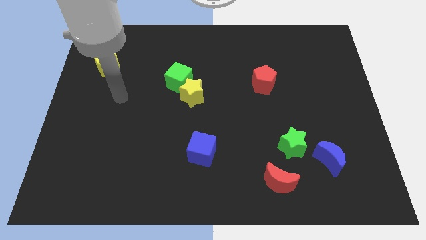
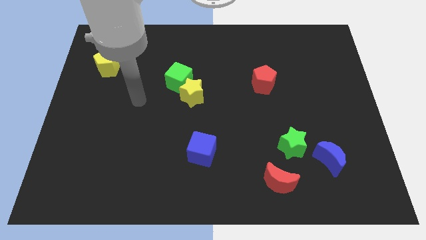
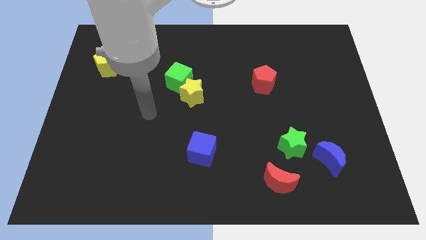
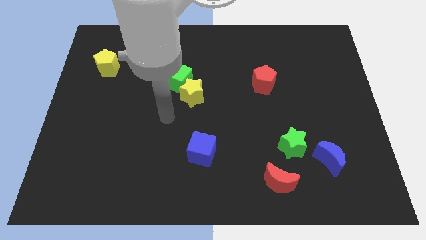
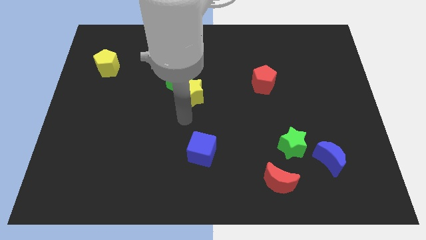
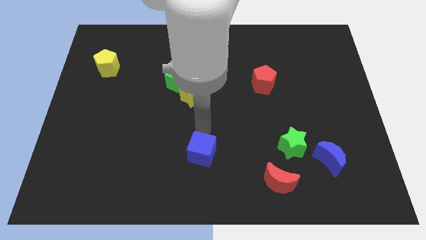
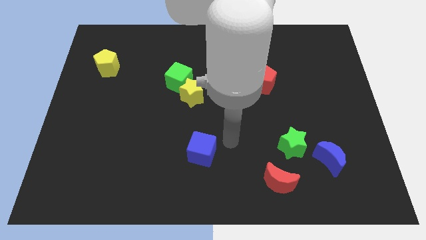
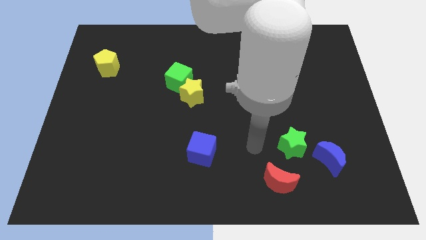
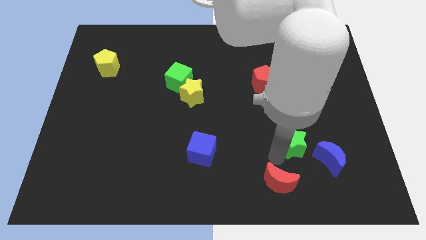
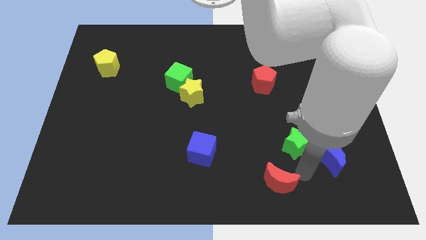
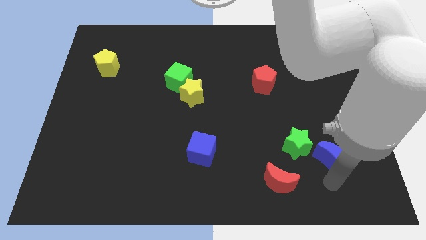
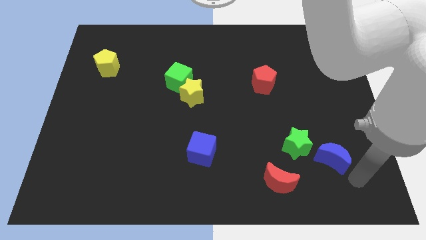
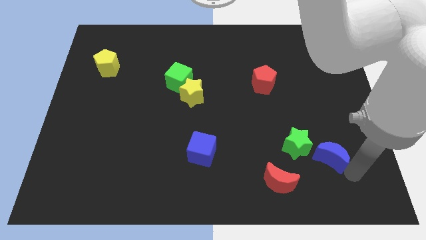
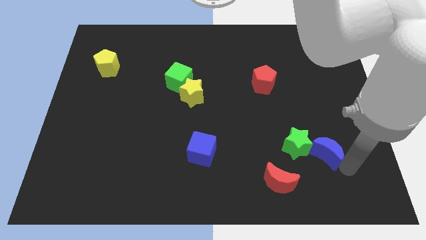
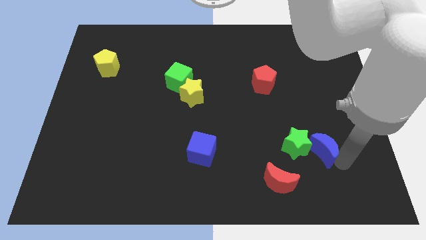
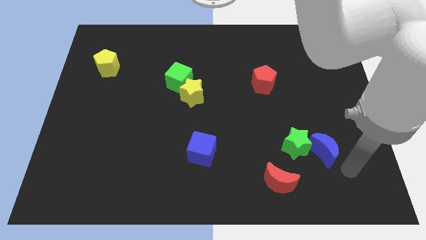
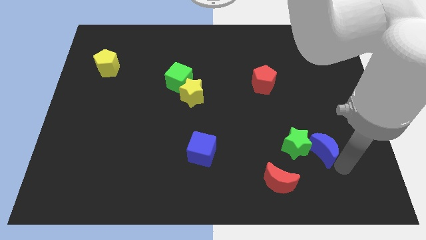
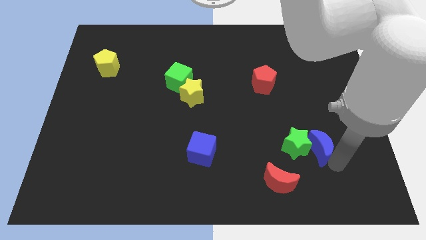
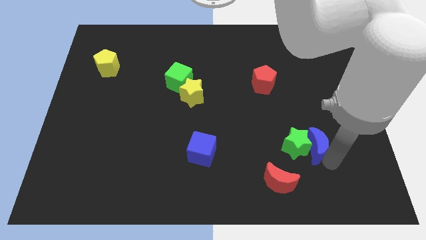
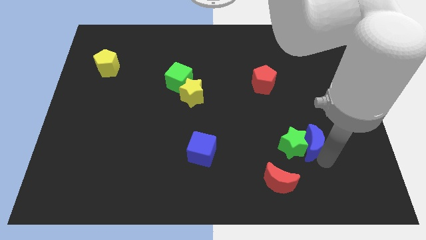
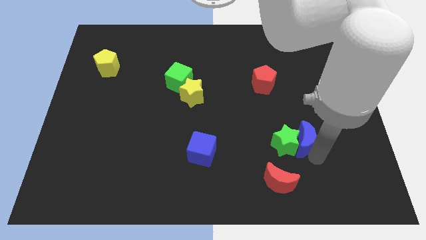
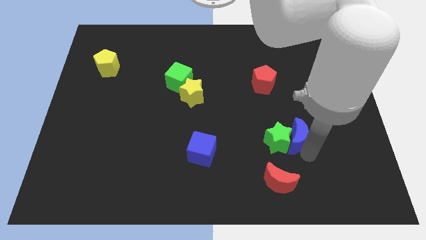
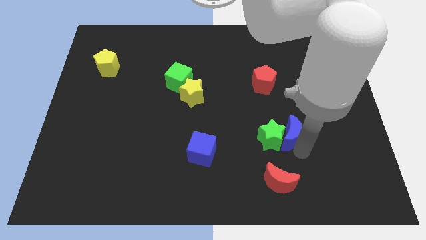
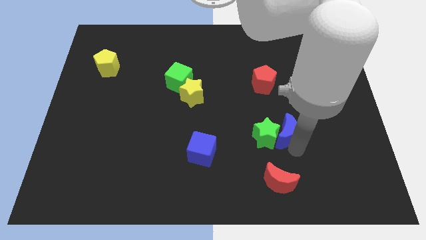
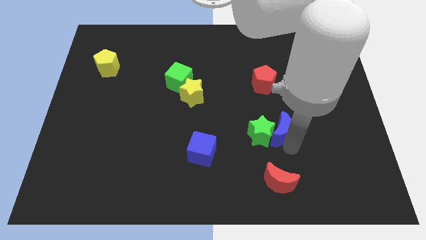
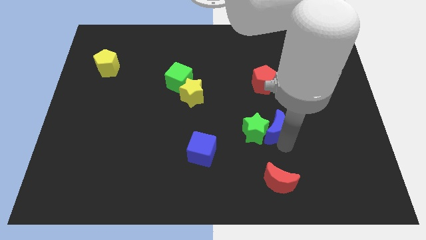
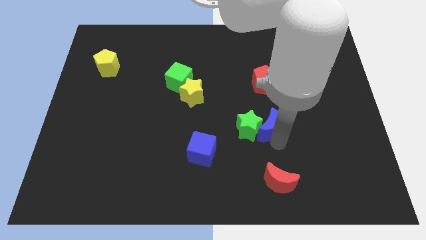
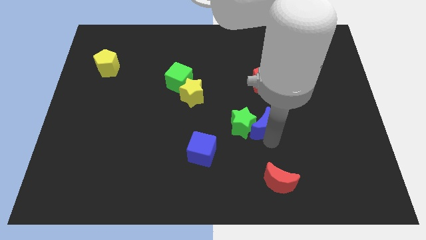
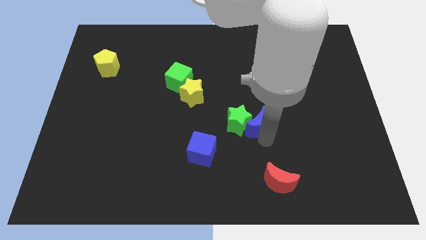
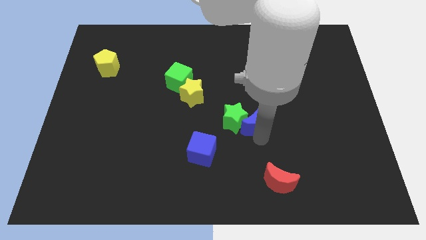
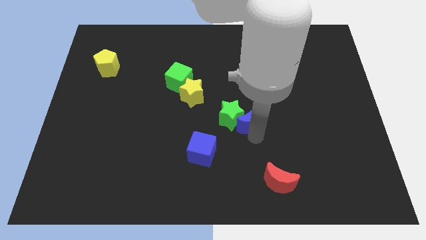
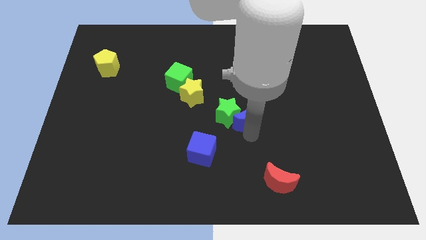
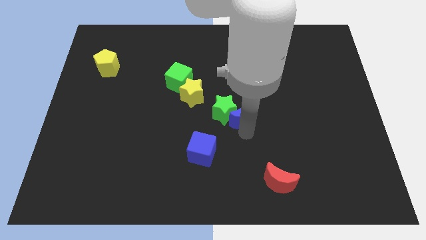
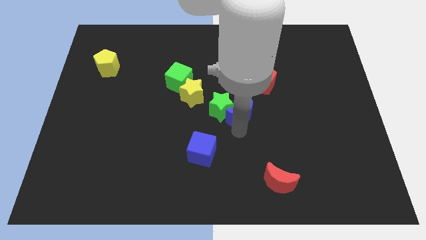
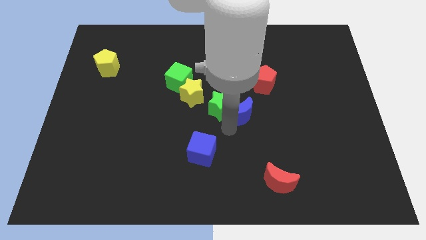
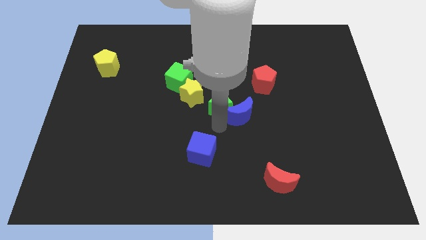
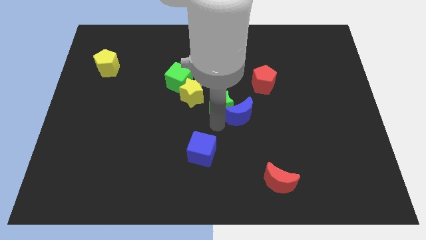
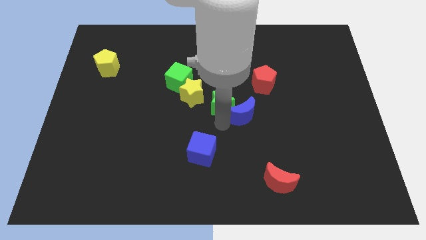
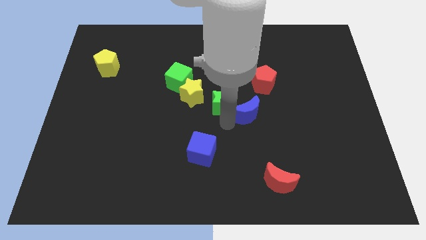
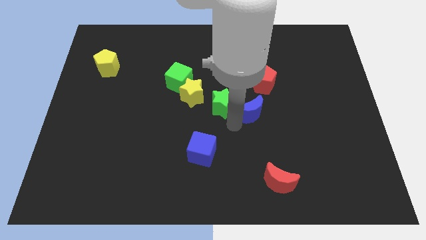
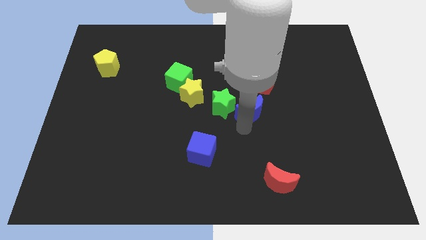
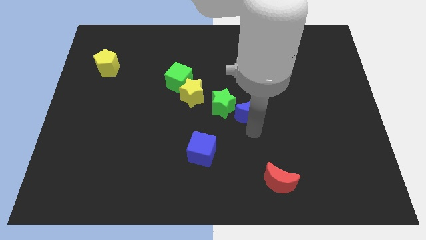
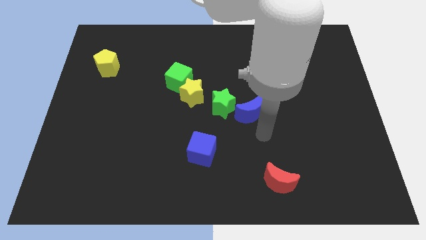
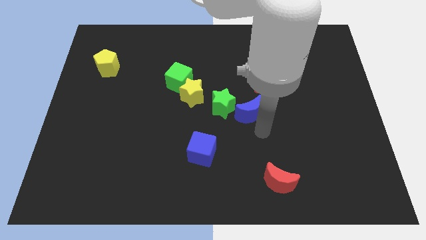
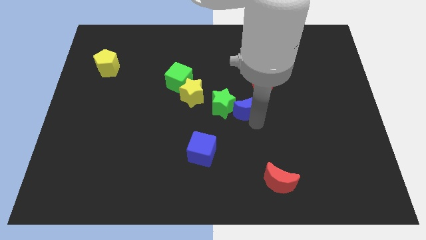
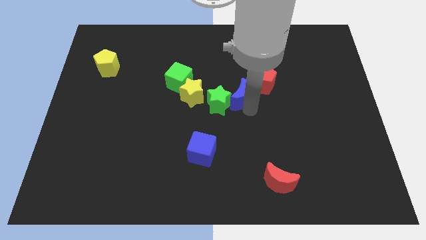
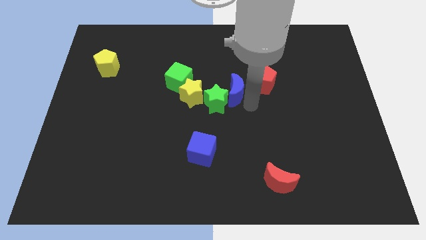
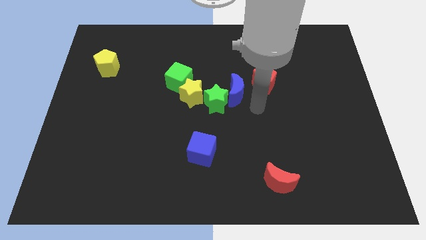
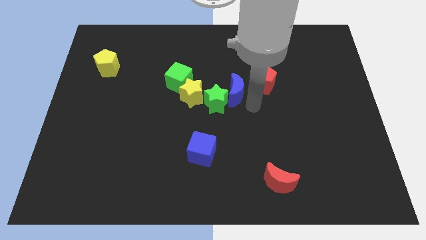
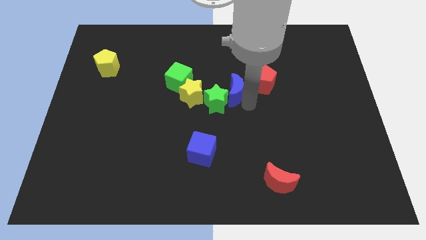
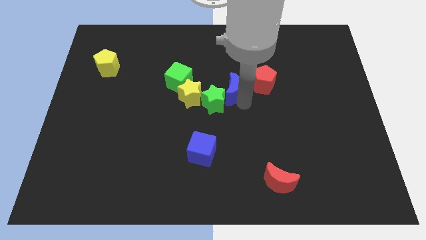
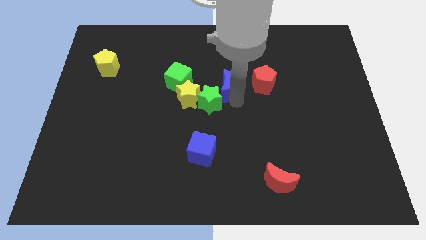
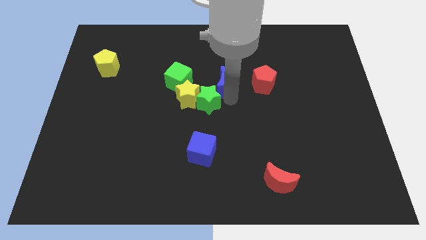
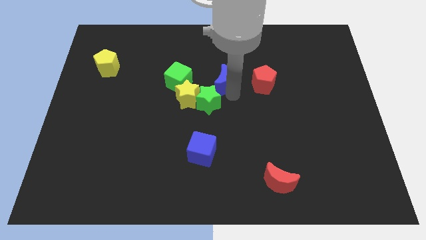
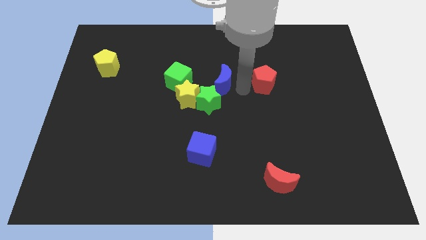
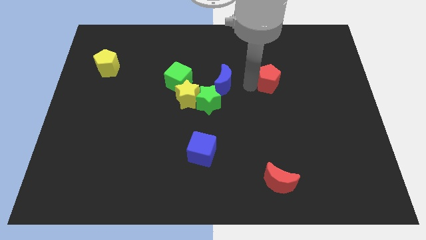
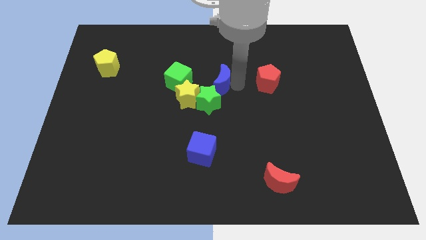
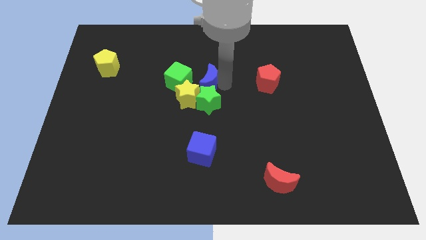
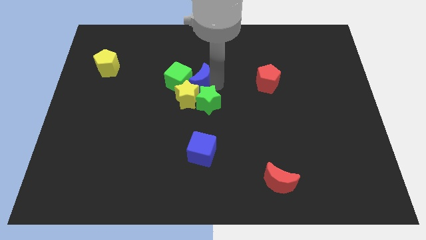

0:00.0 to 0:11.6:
slide the blue moon close to the green cube

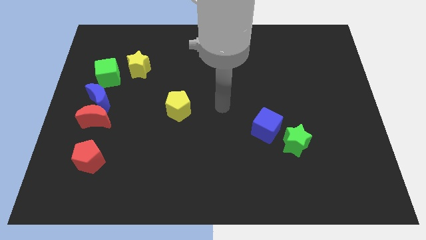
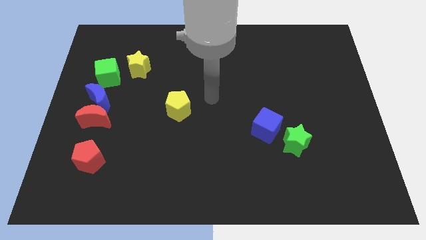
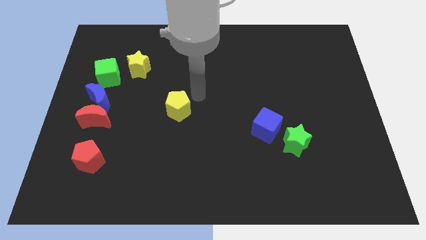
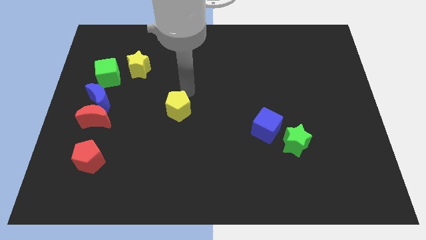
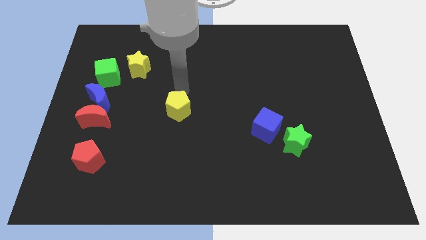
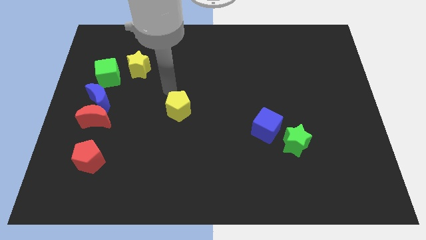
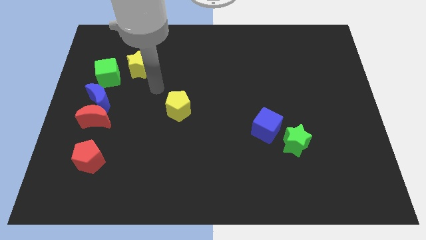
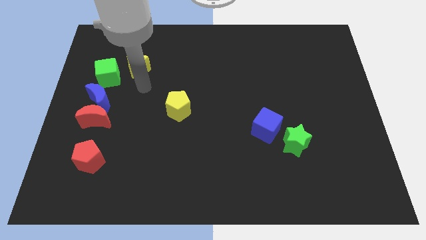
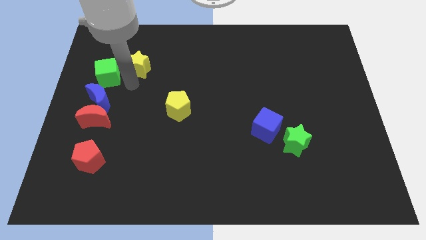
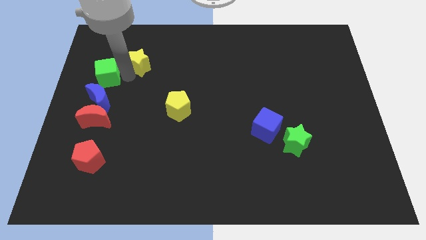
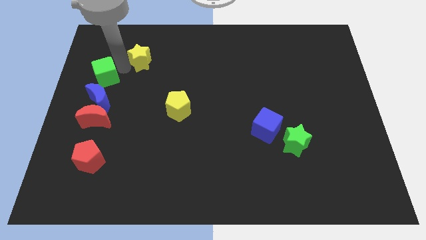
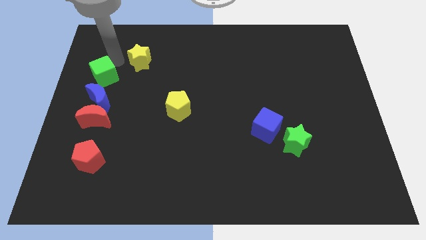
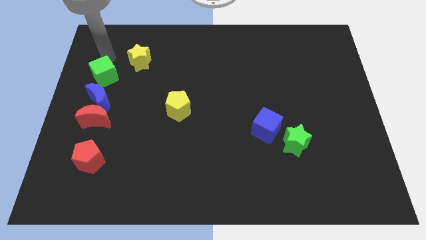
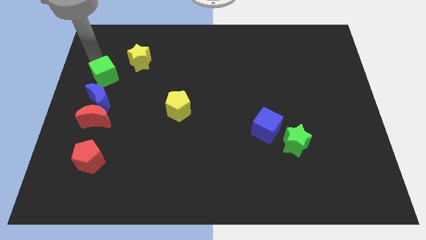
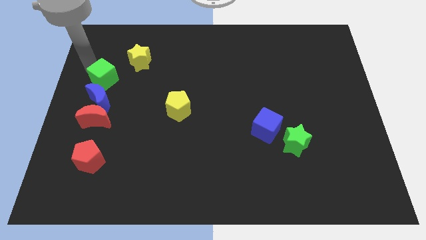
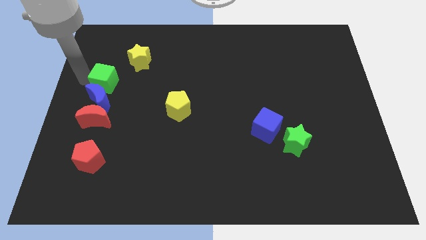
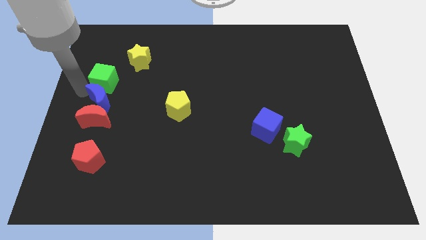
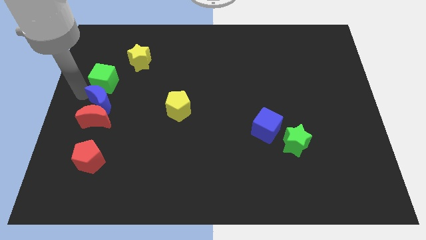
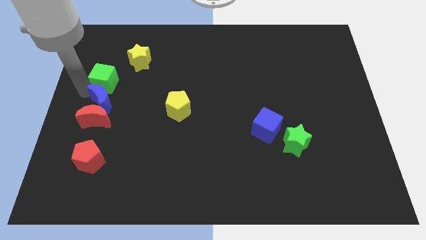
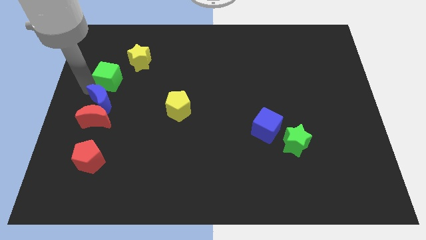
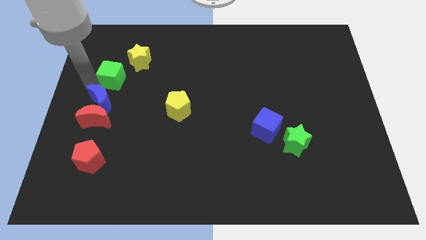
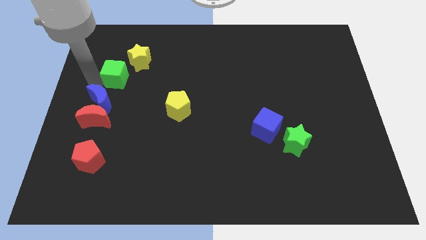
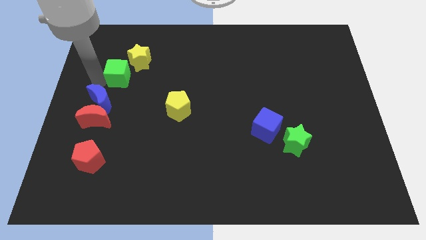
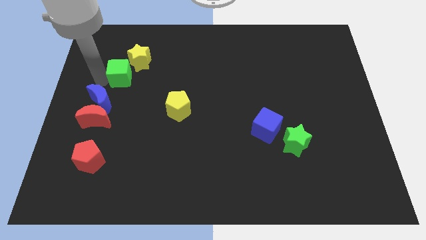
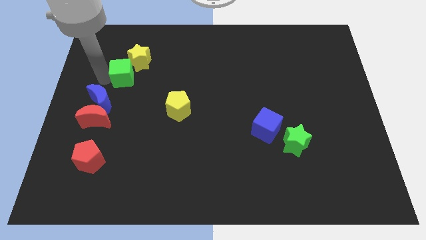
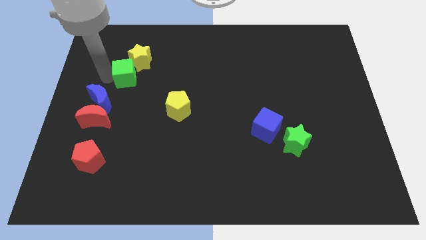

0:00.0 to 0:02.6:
put the green cube towards the yellow star
